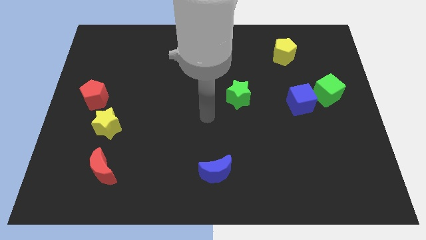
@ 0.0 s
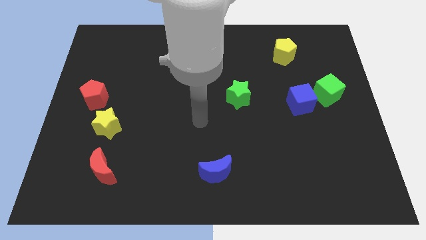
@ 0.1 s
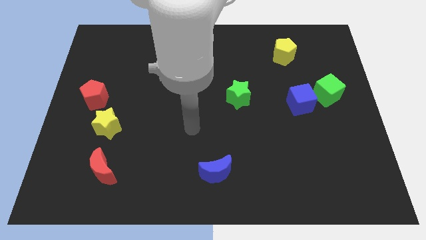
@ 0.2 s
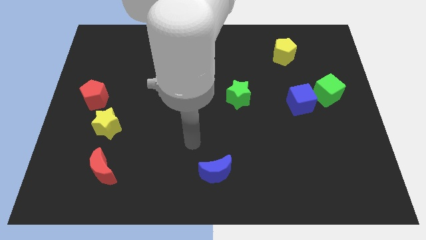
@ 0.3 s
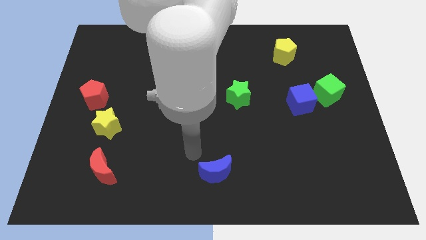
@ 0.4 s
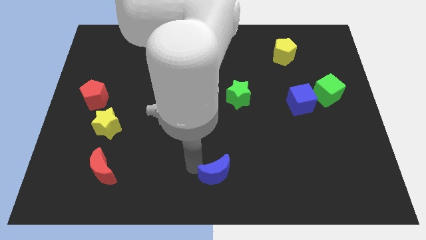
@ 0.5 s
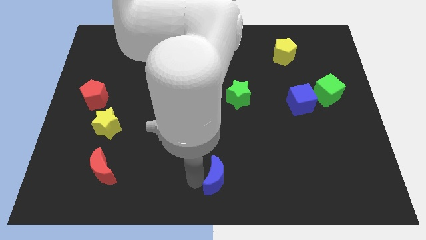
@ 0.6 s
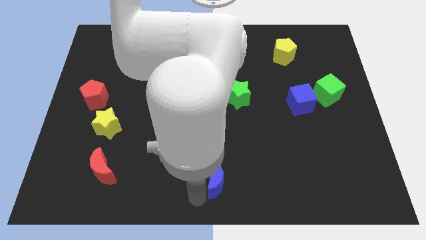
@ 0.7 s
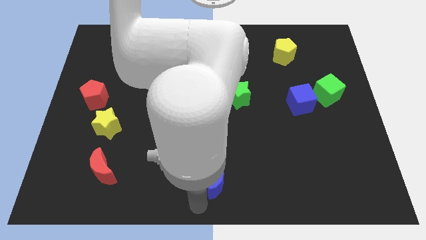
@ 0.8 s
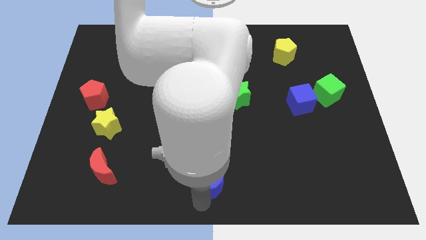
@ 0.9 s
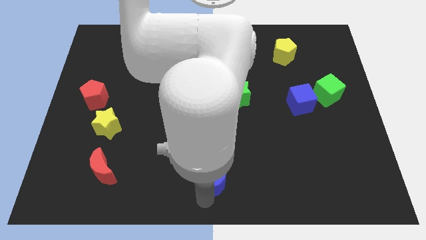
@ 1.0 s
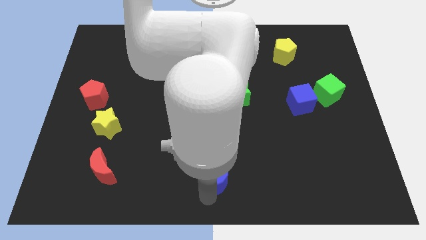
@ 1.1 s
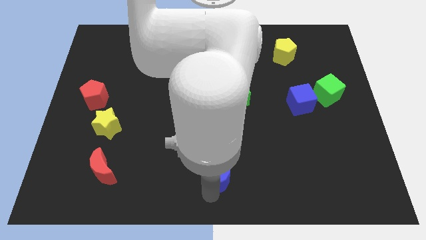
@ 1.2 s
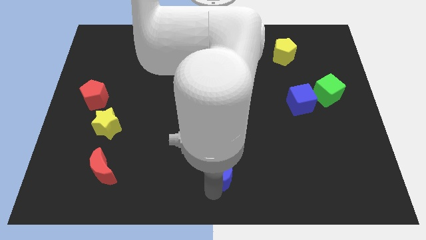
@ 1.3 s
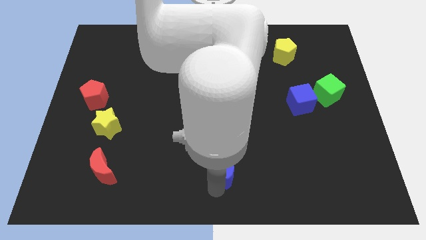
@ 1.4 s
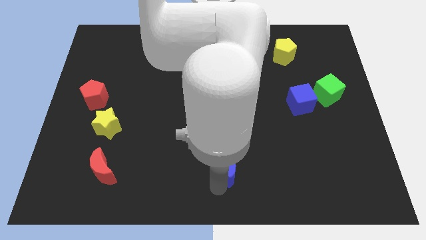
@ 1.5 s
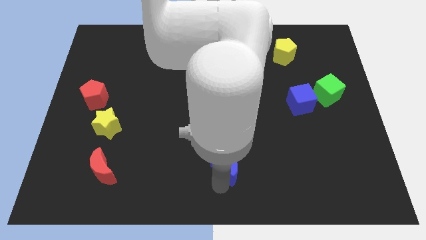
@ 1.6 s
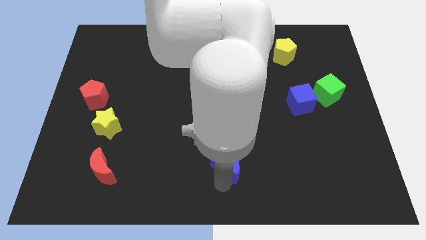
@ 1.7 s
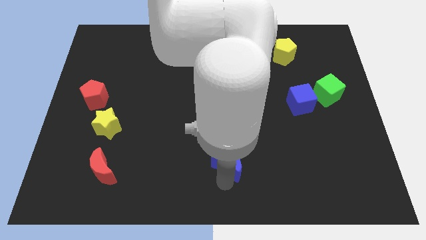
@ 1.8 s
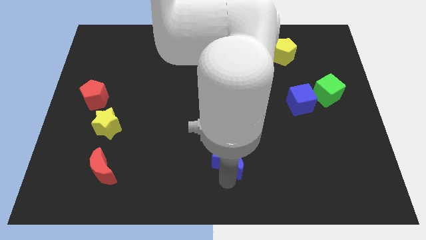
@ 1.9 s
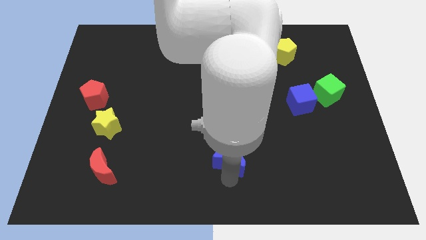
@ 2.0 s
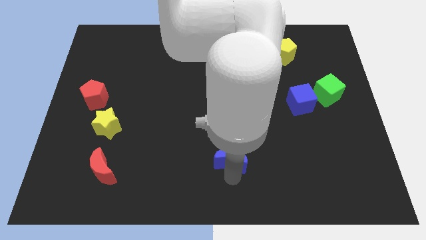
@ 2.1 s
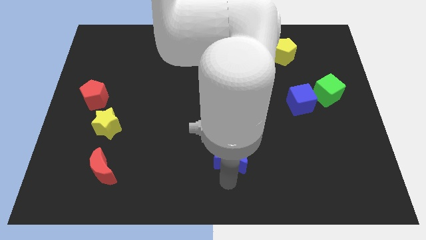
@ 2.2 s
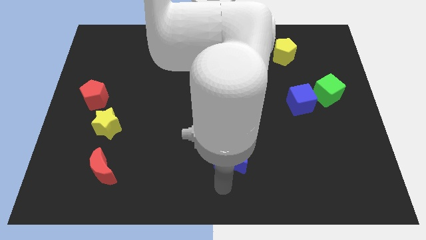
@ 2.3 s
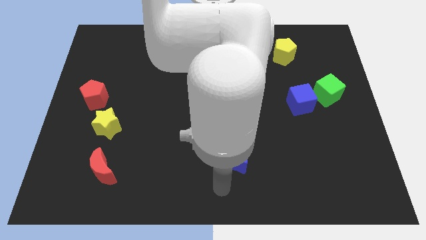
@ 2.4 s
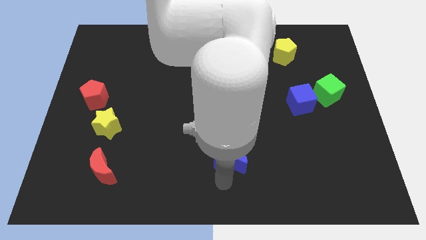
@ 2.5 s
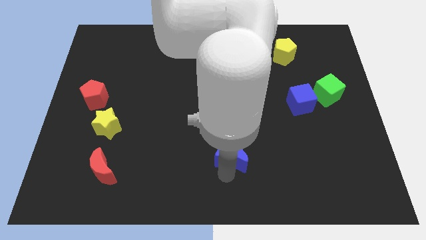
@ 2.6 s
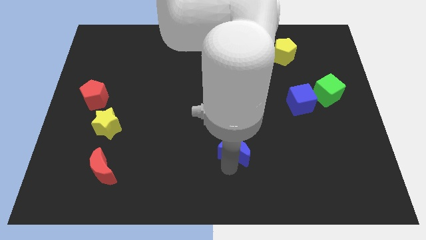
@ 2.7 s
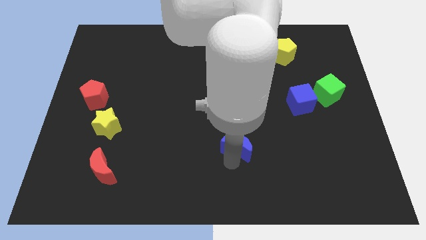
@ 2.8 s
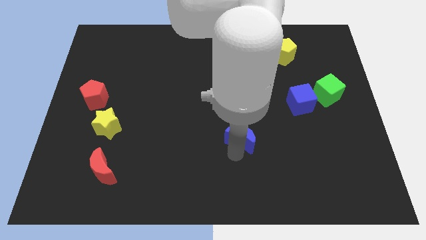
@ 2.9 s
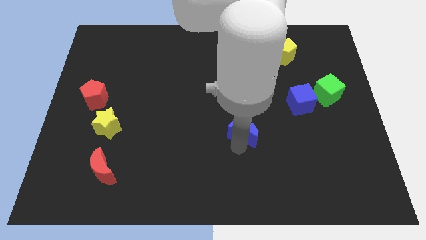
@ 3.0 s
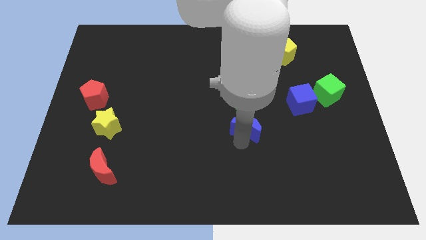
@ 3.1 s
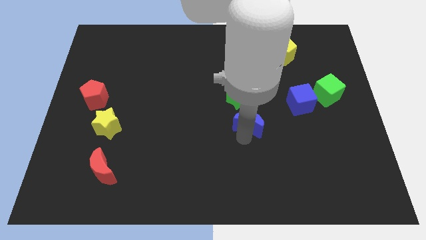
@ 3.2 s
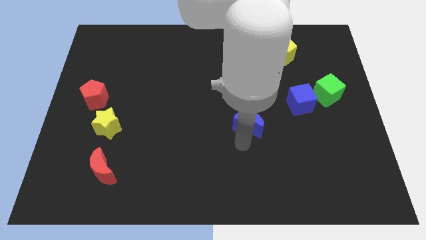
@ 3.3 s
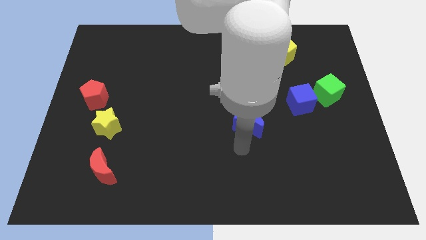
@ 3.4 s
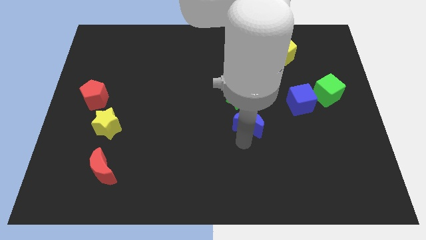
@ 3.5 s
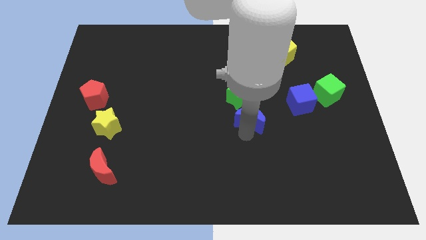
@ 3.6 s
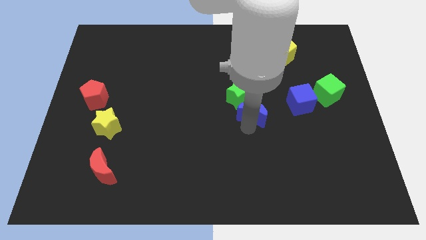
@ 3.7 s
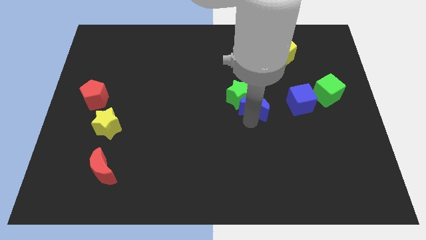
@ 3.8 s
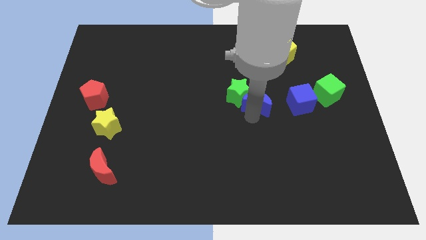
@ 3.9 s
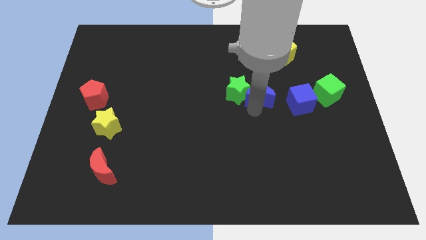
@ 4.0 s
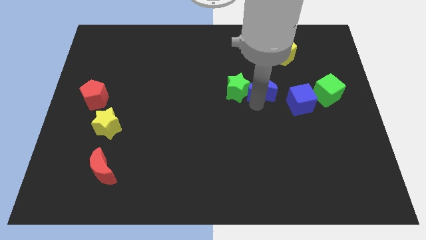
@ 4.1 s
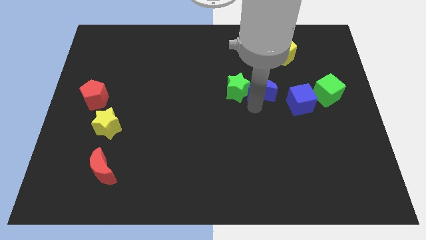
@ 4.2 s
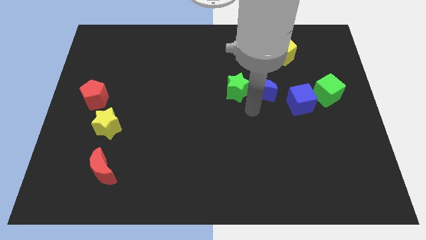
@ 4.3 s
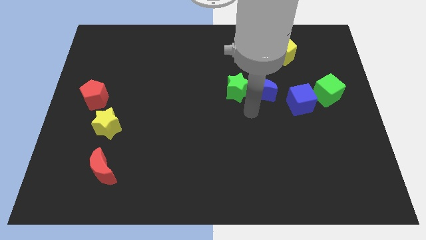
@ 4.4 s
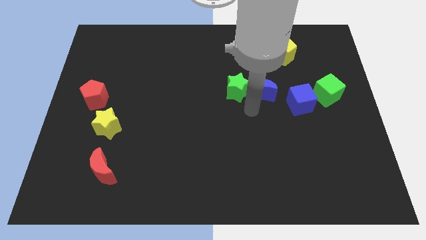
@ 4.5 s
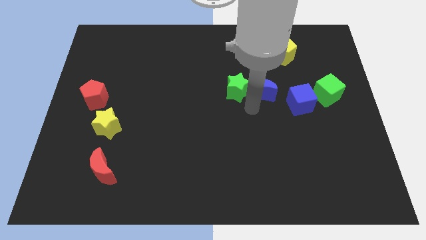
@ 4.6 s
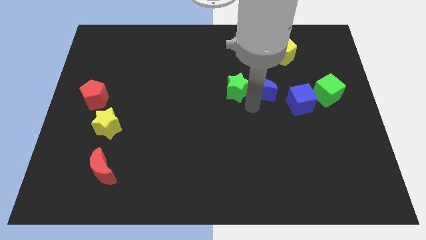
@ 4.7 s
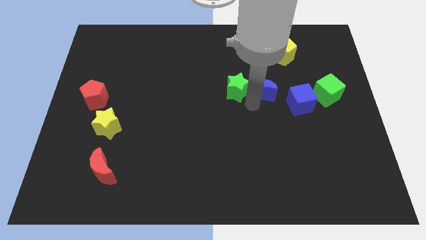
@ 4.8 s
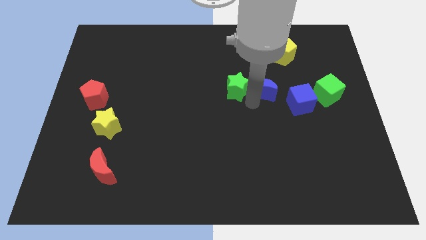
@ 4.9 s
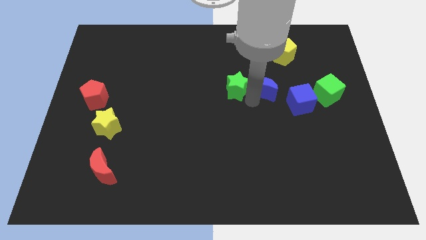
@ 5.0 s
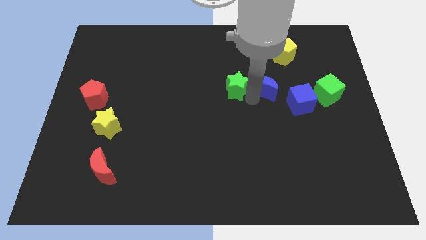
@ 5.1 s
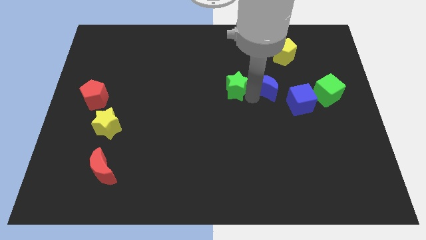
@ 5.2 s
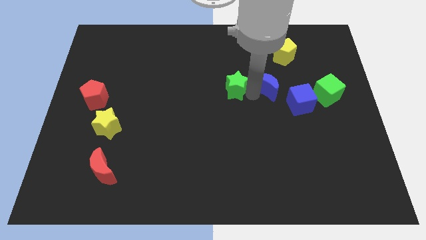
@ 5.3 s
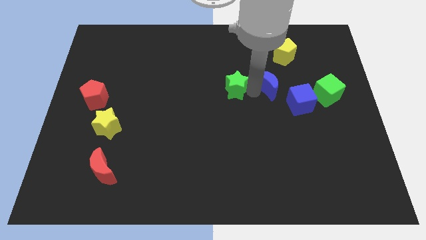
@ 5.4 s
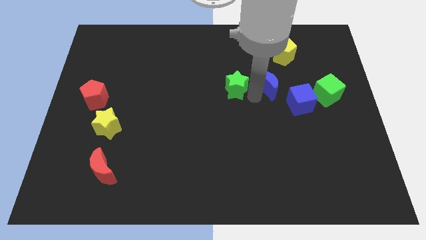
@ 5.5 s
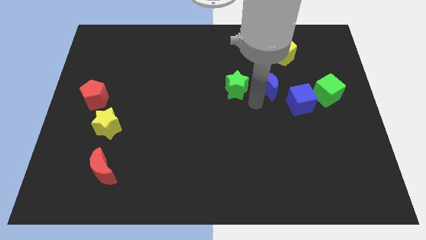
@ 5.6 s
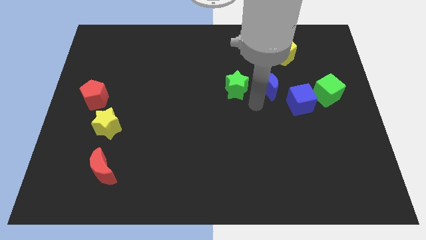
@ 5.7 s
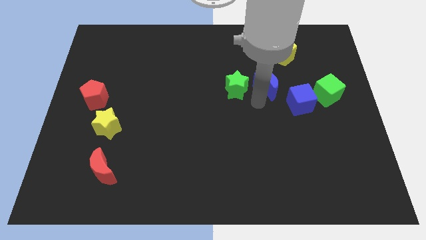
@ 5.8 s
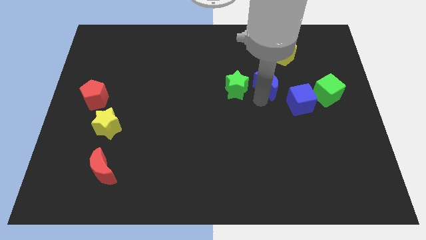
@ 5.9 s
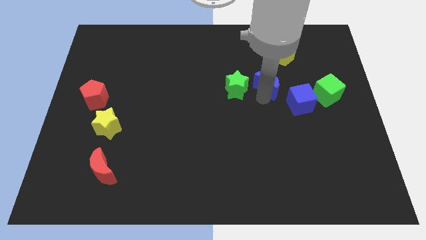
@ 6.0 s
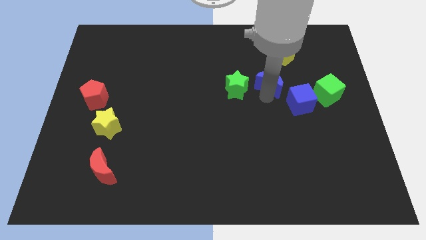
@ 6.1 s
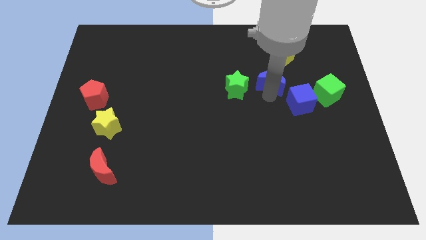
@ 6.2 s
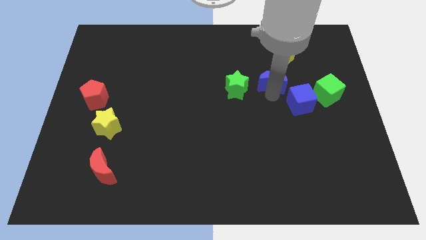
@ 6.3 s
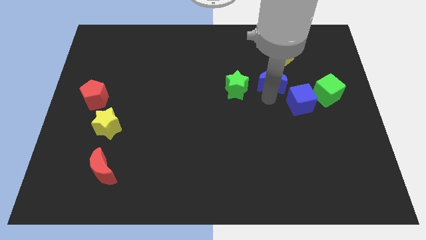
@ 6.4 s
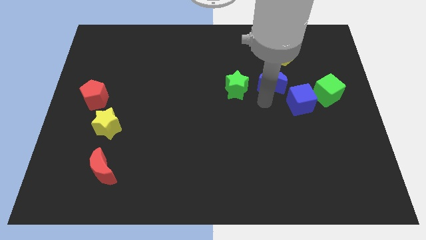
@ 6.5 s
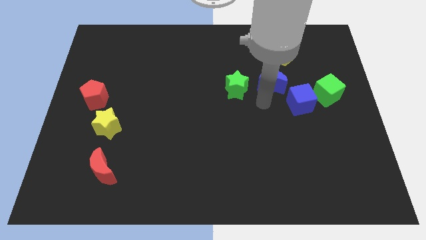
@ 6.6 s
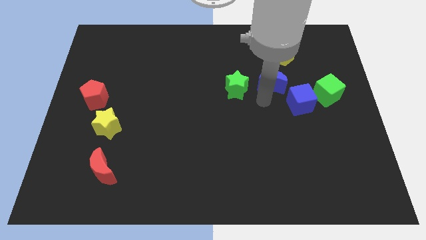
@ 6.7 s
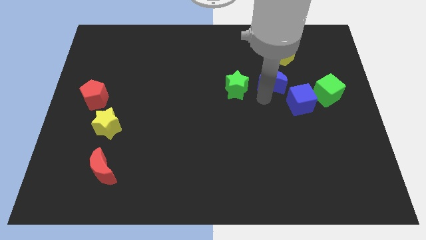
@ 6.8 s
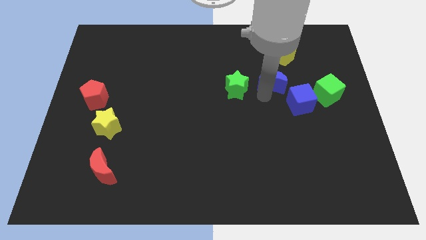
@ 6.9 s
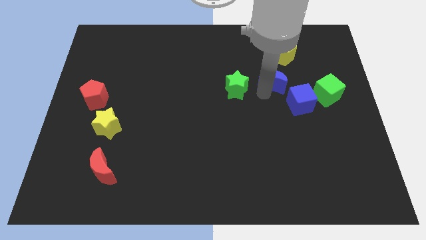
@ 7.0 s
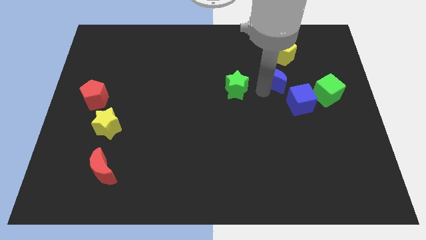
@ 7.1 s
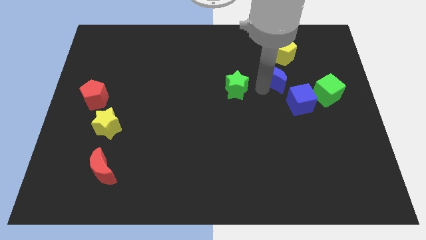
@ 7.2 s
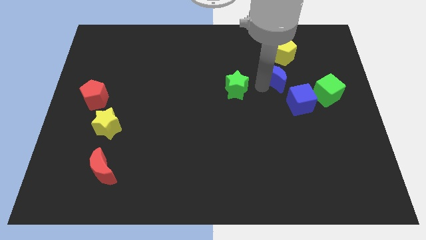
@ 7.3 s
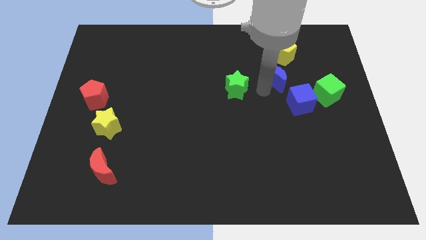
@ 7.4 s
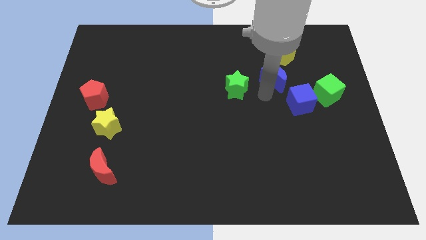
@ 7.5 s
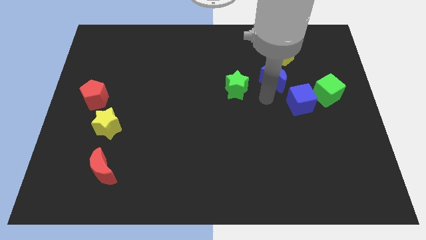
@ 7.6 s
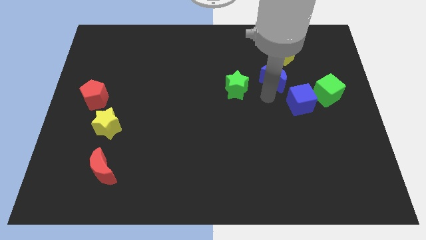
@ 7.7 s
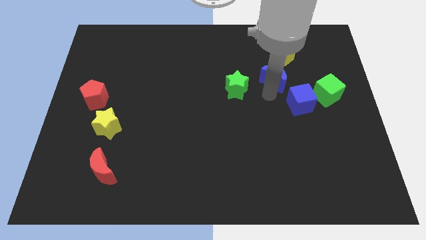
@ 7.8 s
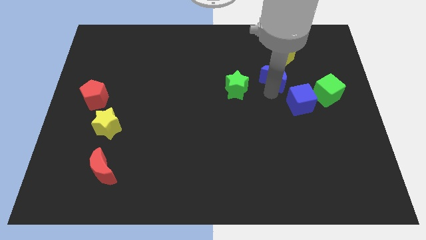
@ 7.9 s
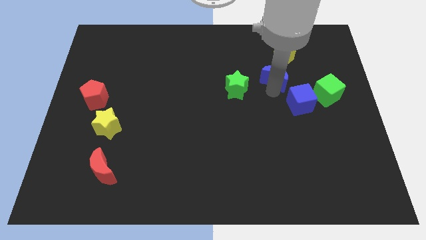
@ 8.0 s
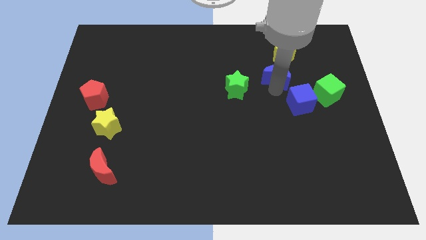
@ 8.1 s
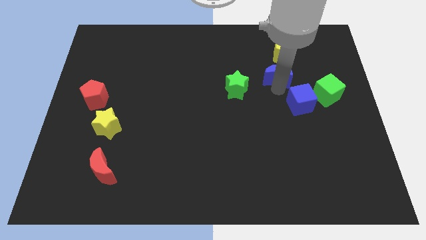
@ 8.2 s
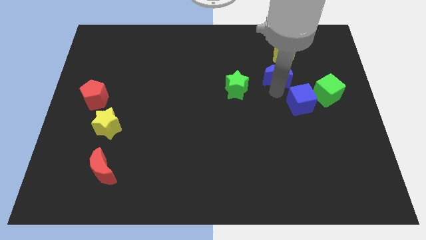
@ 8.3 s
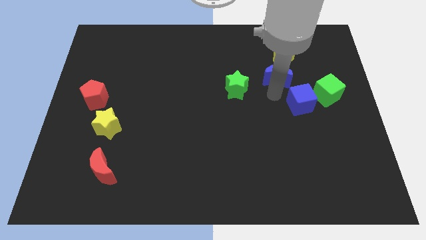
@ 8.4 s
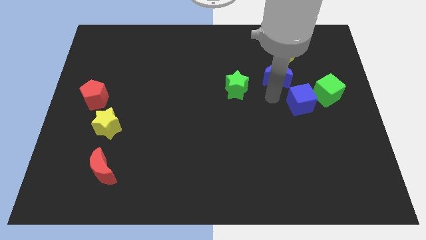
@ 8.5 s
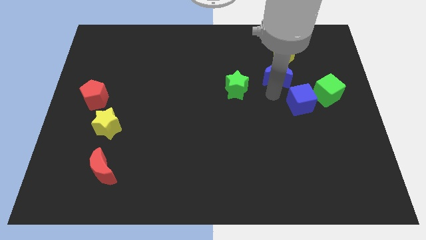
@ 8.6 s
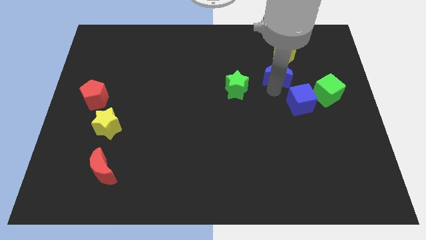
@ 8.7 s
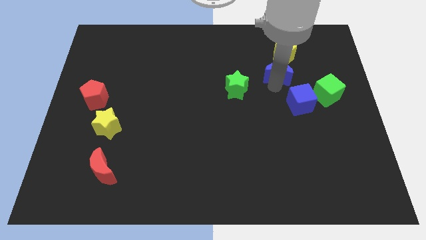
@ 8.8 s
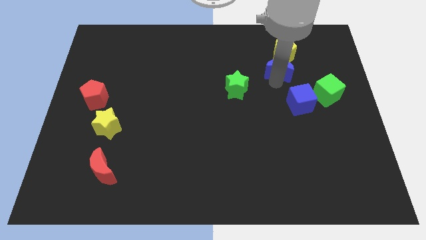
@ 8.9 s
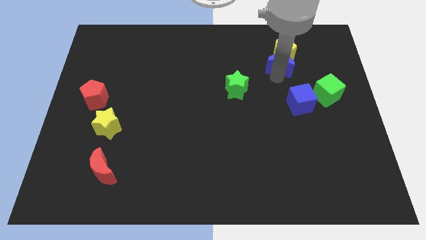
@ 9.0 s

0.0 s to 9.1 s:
slide the blue moon close to the yellow pentagon
